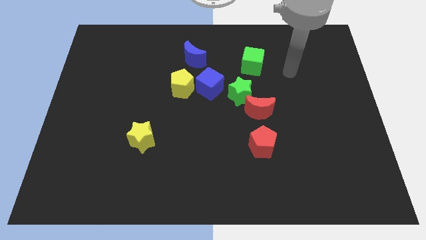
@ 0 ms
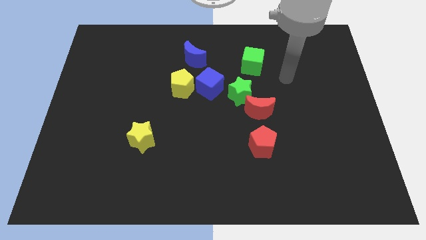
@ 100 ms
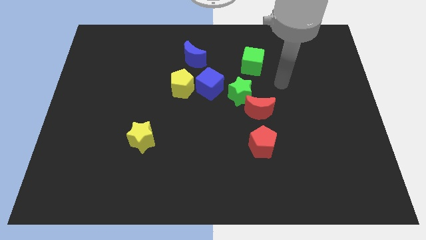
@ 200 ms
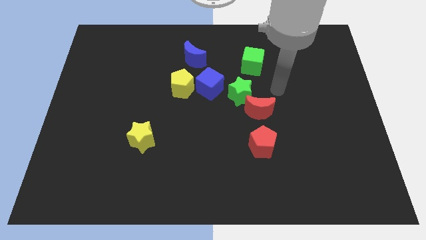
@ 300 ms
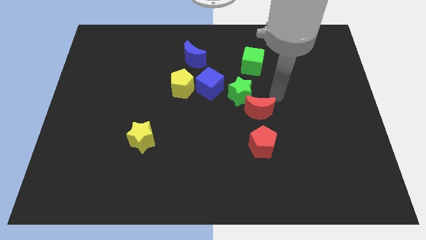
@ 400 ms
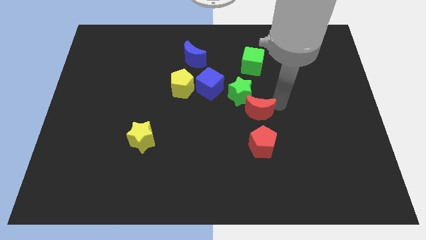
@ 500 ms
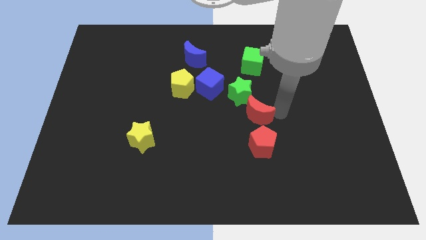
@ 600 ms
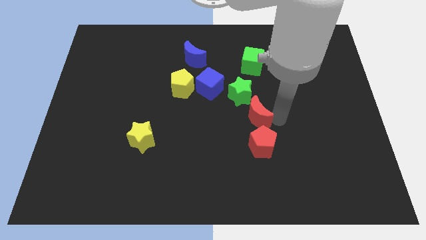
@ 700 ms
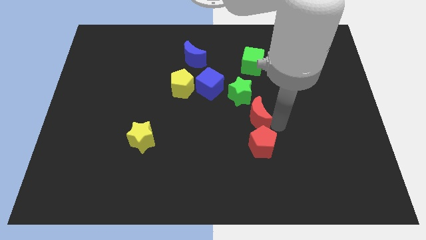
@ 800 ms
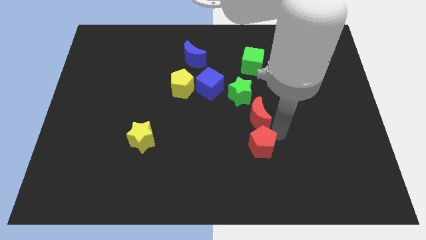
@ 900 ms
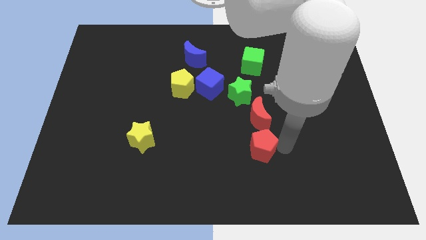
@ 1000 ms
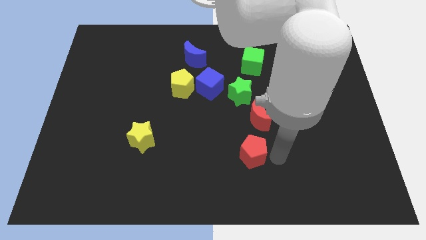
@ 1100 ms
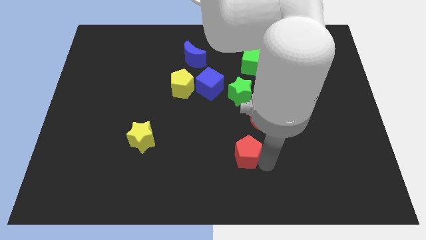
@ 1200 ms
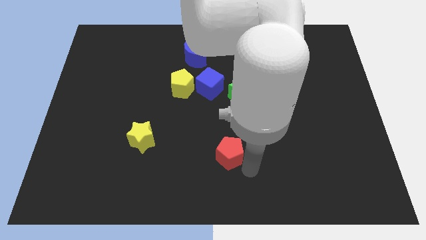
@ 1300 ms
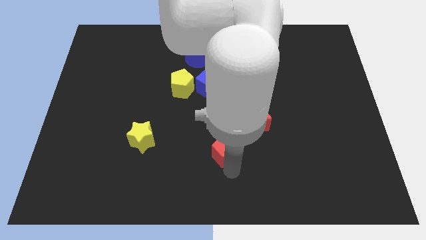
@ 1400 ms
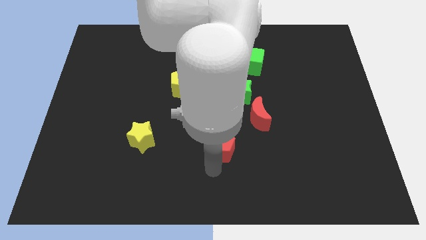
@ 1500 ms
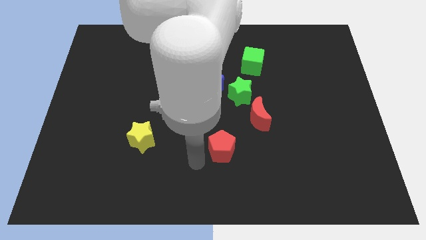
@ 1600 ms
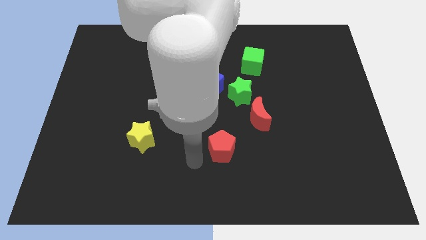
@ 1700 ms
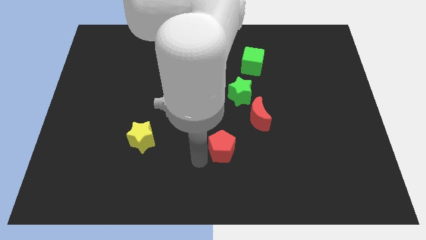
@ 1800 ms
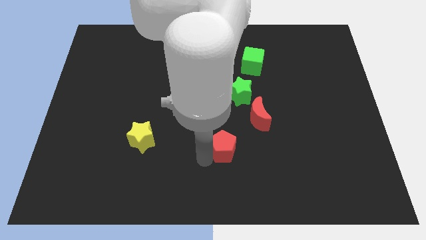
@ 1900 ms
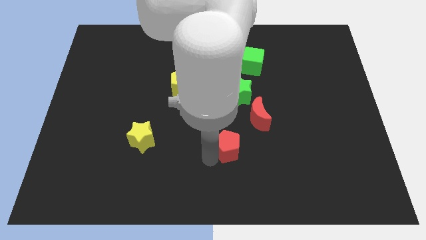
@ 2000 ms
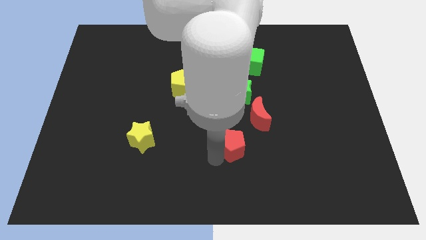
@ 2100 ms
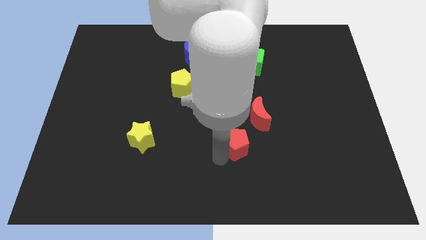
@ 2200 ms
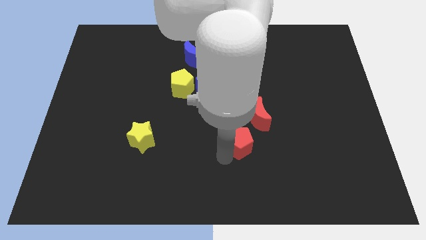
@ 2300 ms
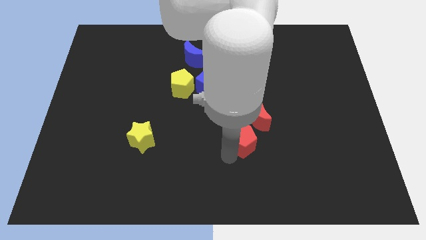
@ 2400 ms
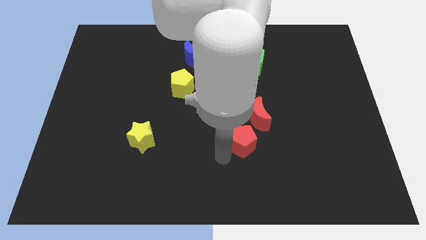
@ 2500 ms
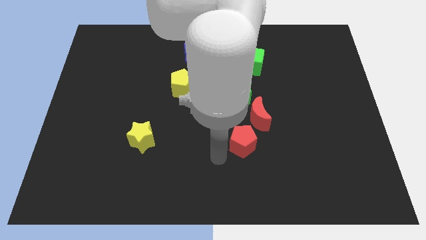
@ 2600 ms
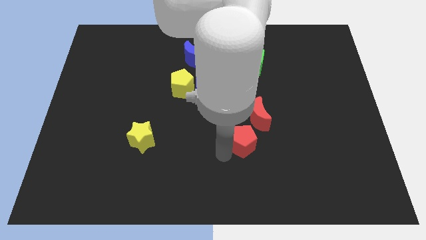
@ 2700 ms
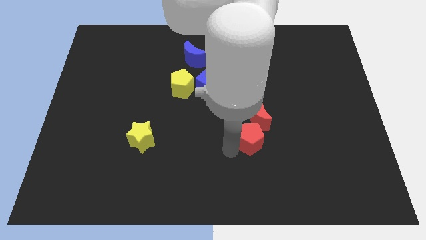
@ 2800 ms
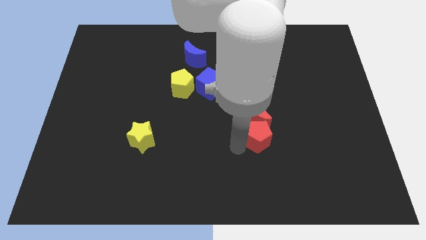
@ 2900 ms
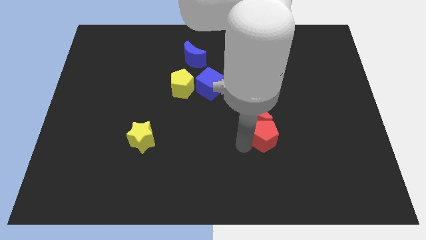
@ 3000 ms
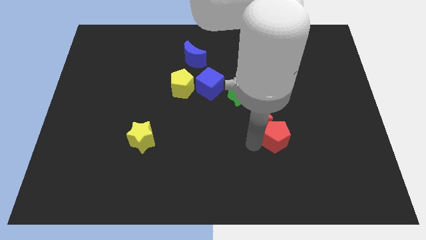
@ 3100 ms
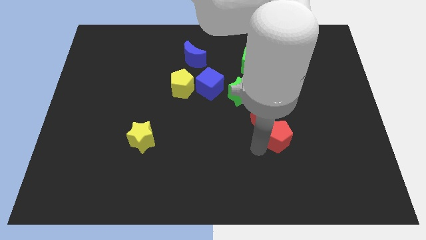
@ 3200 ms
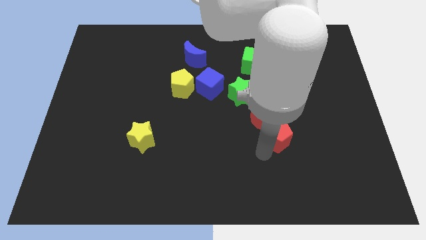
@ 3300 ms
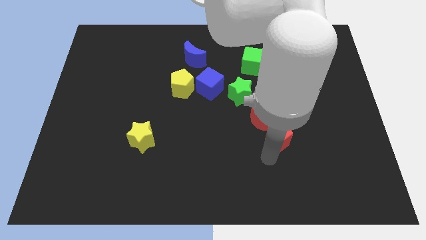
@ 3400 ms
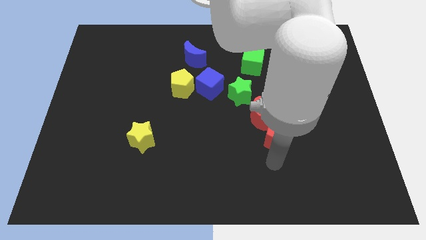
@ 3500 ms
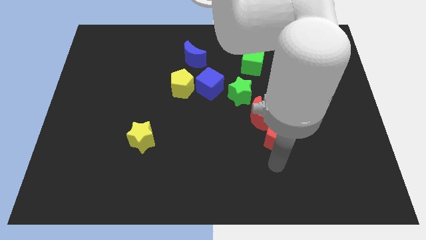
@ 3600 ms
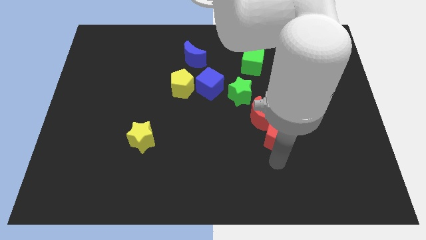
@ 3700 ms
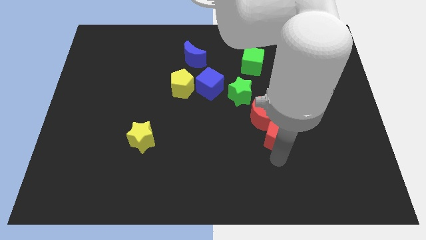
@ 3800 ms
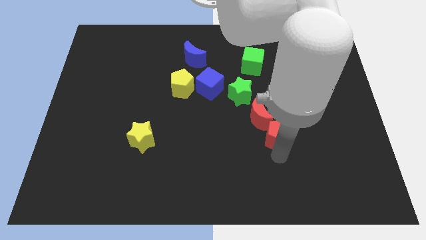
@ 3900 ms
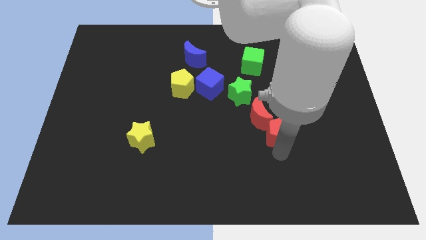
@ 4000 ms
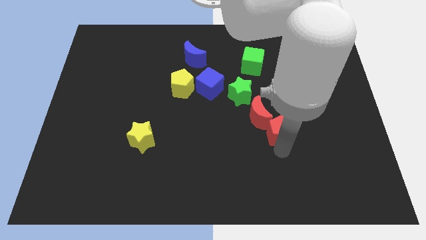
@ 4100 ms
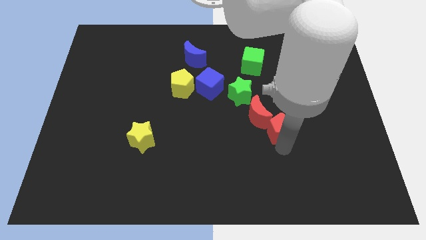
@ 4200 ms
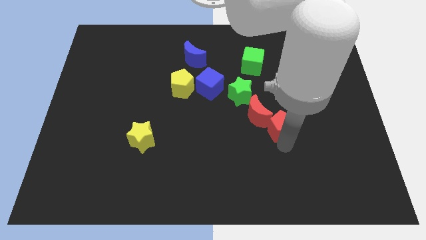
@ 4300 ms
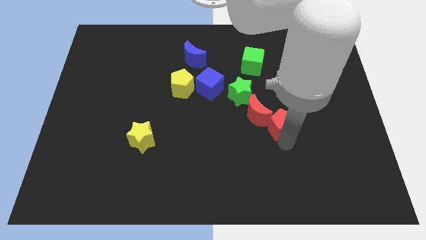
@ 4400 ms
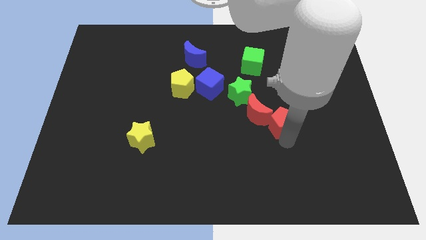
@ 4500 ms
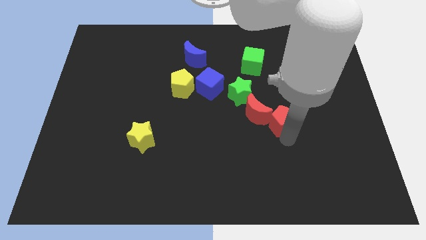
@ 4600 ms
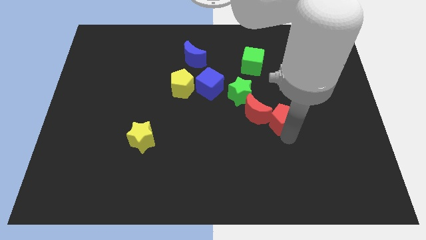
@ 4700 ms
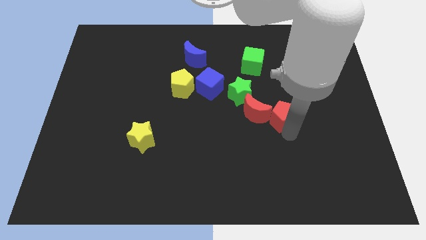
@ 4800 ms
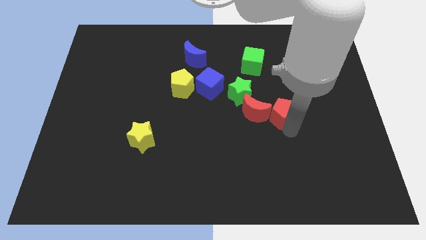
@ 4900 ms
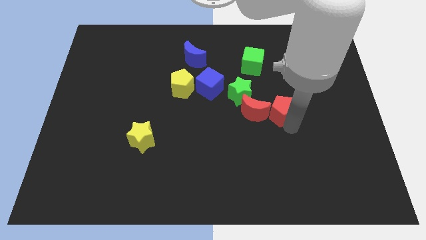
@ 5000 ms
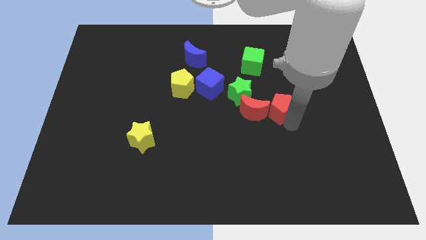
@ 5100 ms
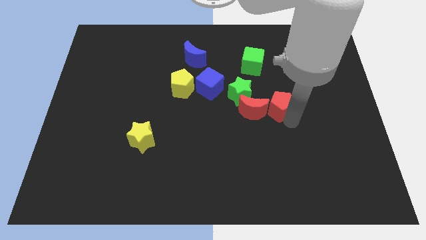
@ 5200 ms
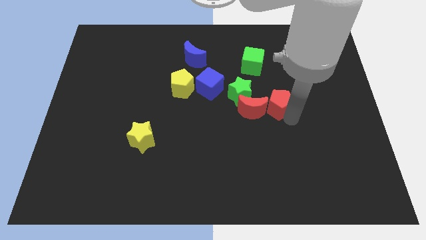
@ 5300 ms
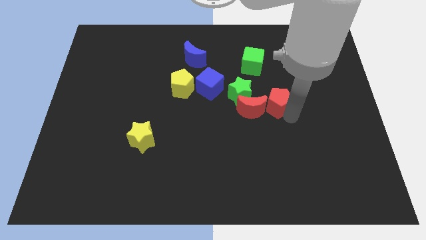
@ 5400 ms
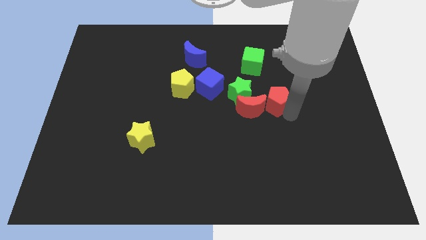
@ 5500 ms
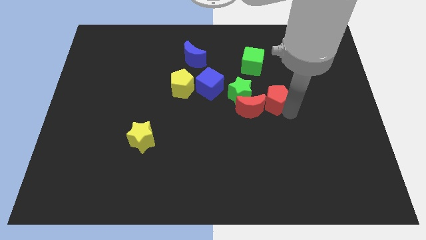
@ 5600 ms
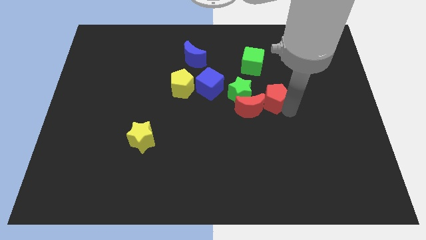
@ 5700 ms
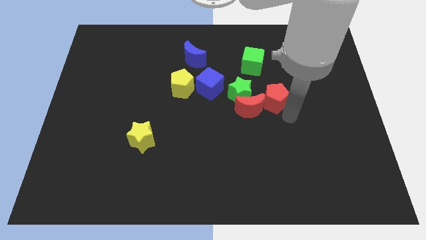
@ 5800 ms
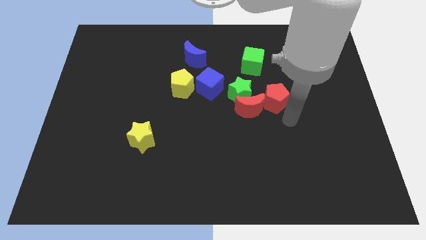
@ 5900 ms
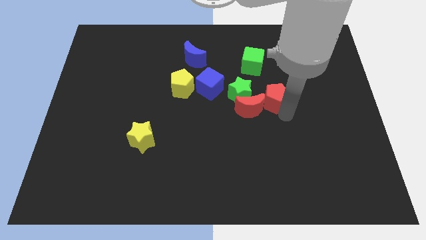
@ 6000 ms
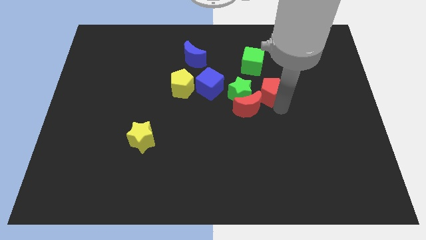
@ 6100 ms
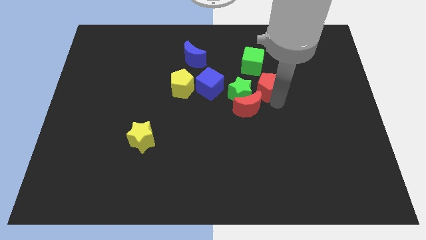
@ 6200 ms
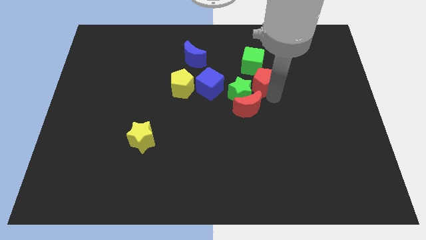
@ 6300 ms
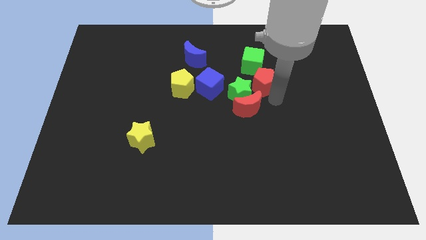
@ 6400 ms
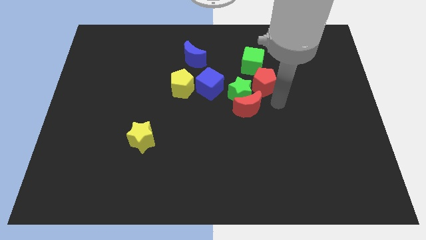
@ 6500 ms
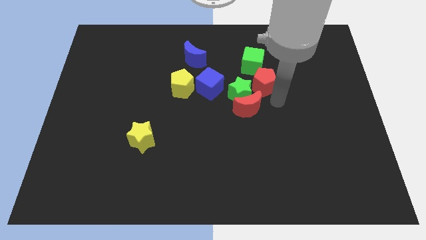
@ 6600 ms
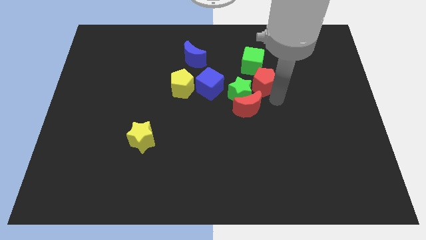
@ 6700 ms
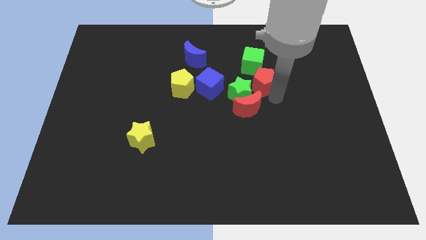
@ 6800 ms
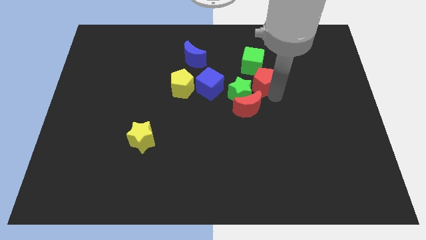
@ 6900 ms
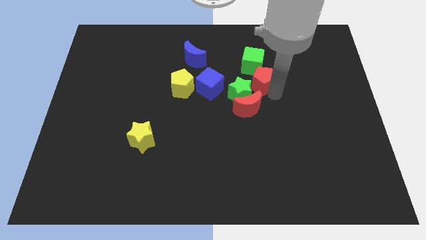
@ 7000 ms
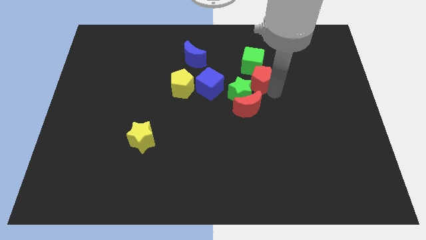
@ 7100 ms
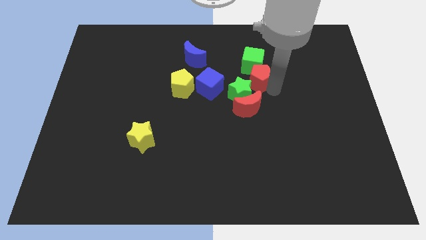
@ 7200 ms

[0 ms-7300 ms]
move the red pentagon towards the green cube
